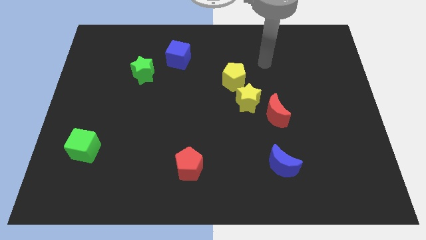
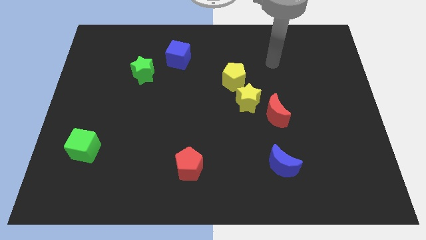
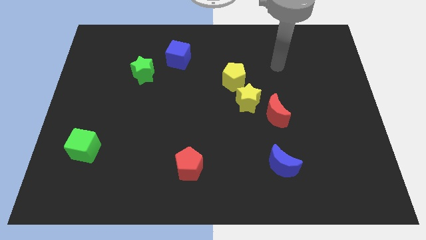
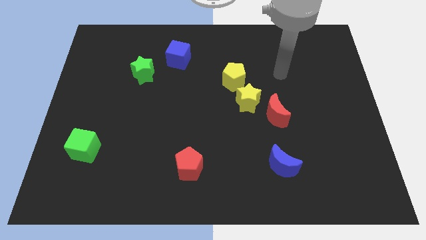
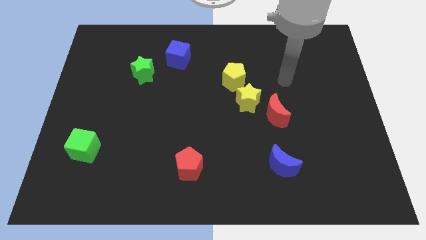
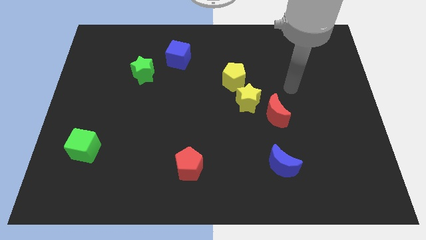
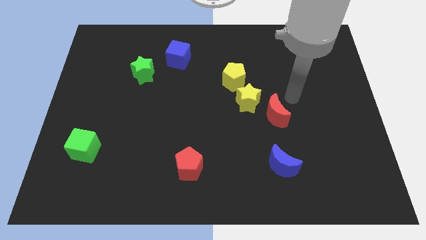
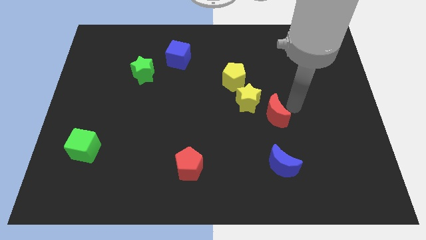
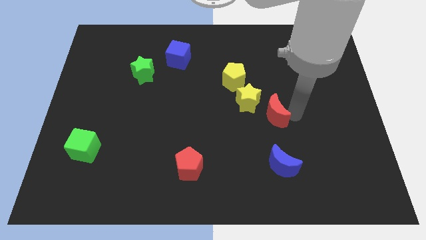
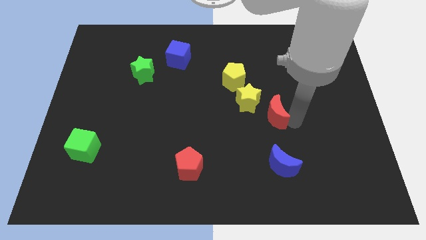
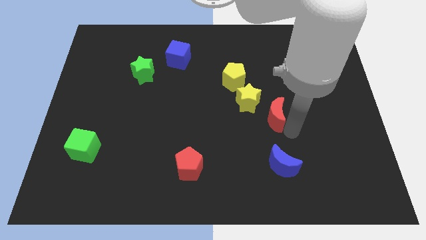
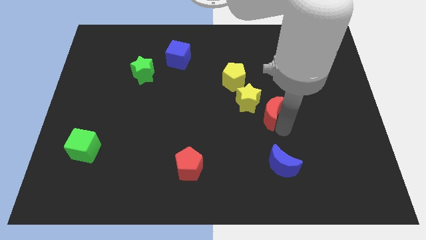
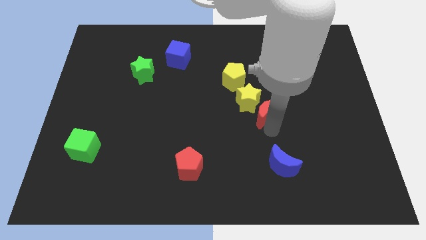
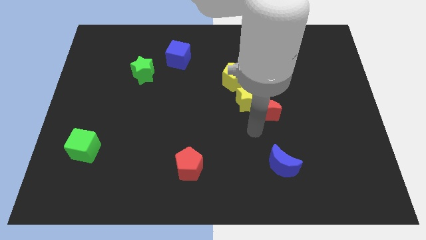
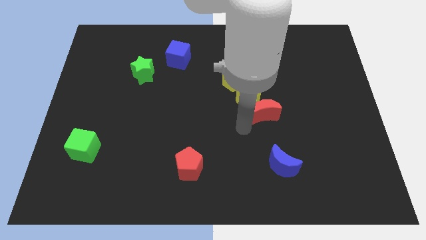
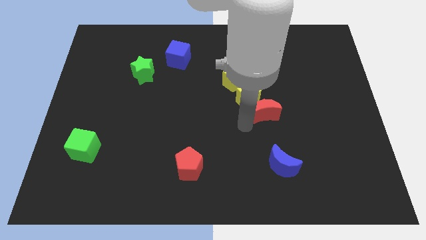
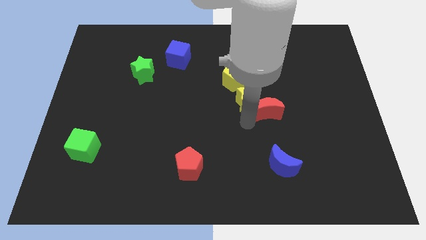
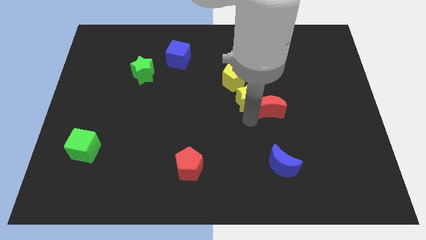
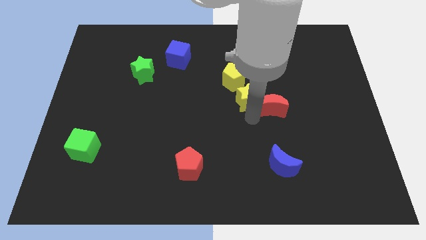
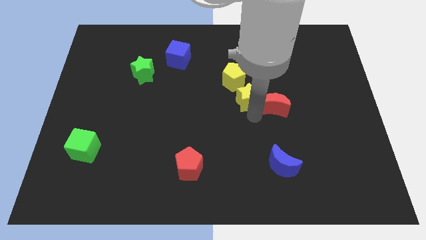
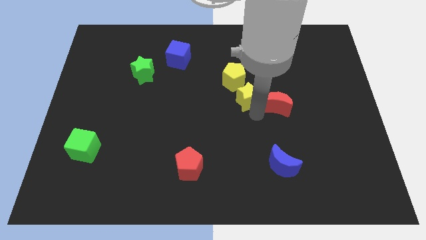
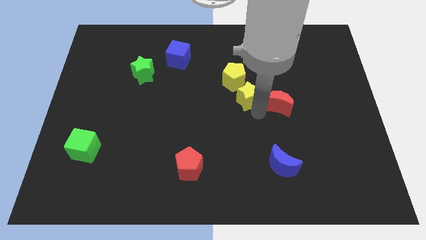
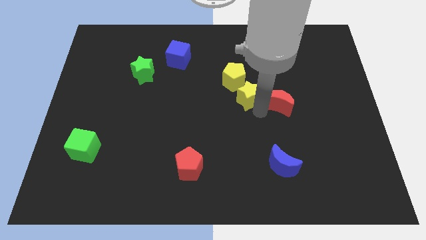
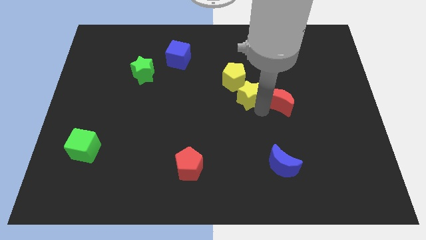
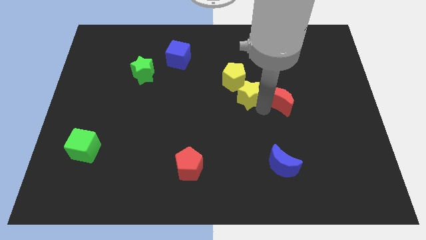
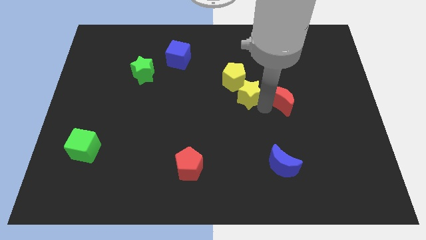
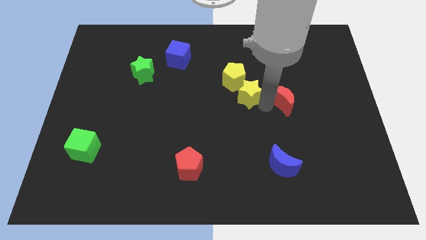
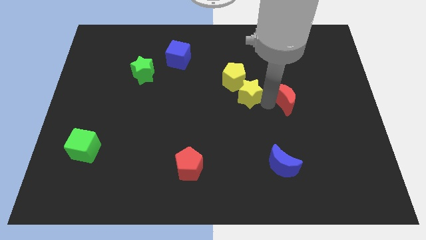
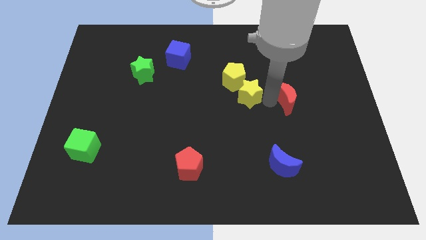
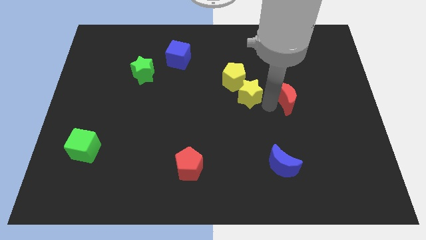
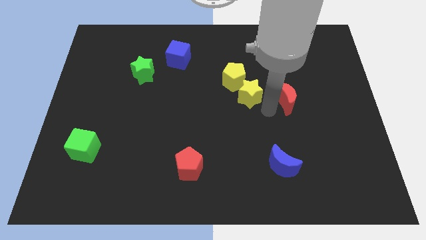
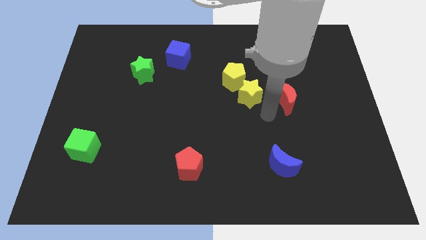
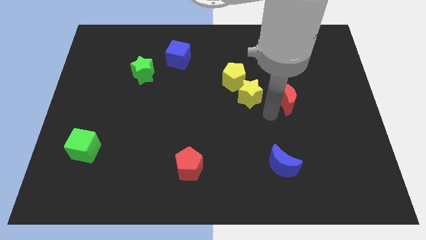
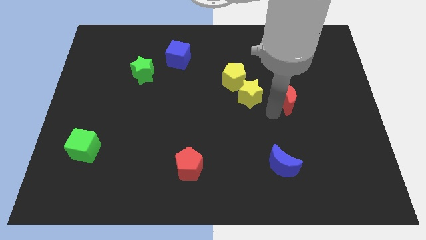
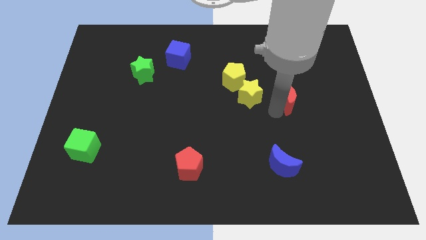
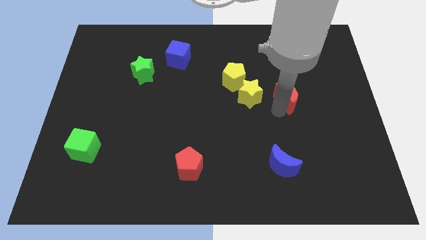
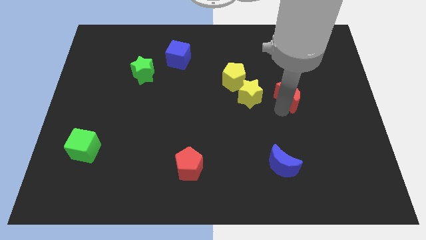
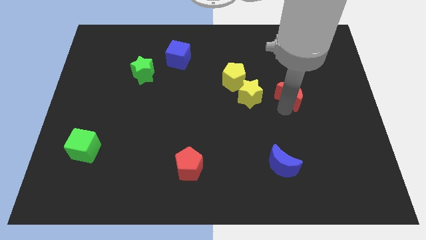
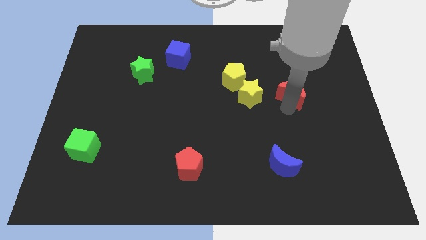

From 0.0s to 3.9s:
slightly push the red moon upwards and right diagonally

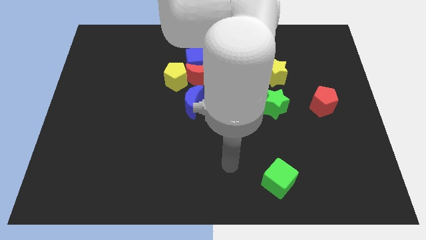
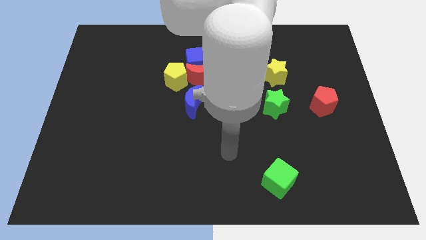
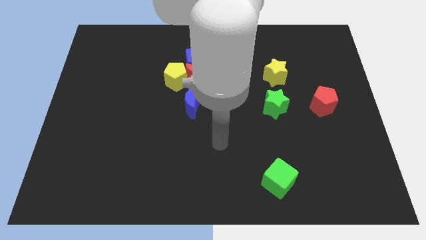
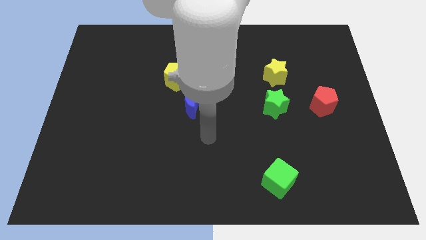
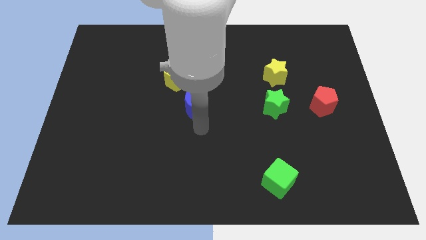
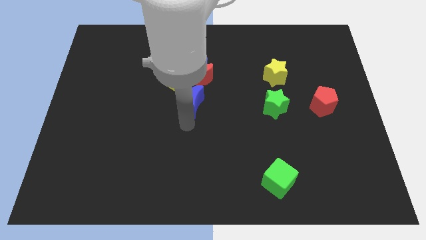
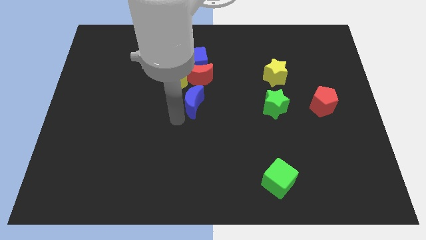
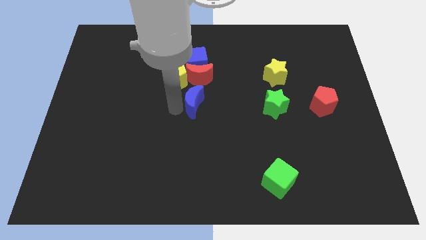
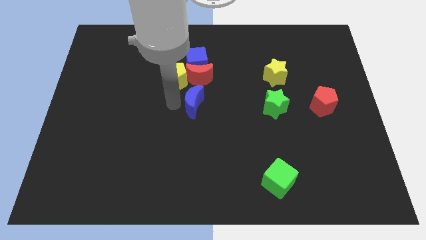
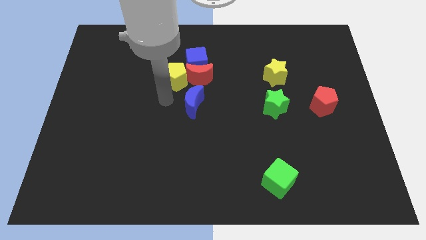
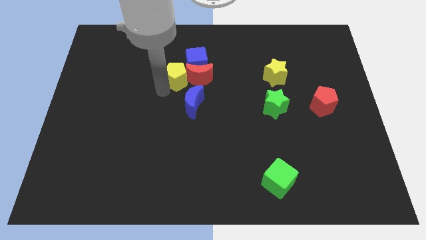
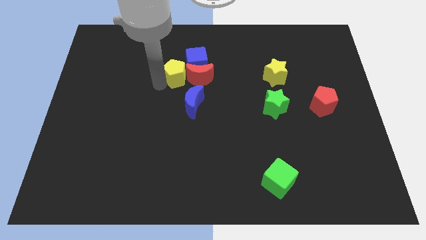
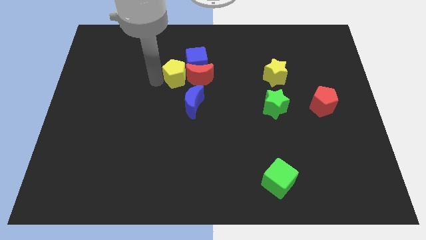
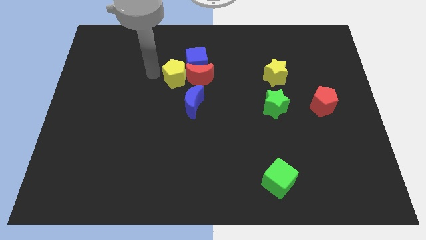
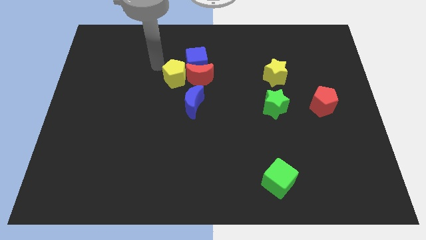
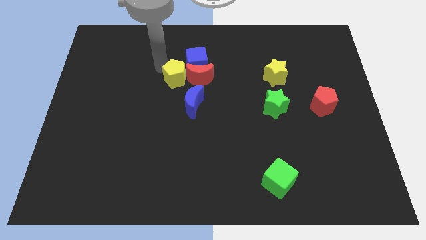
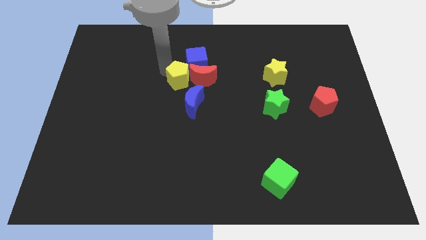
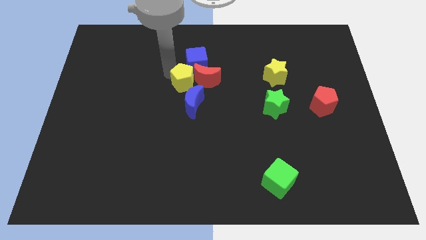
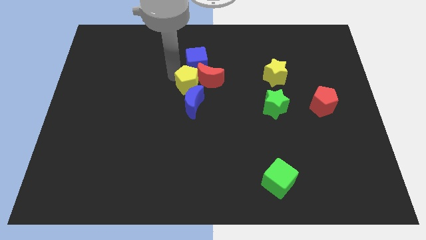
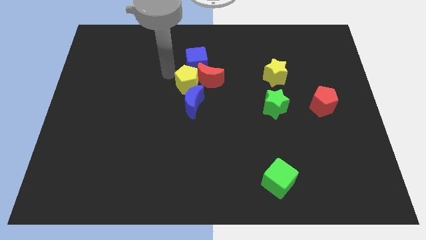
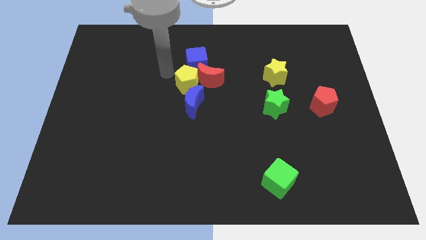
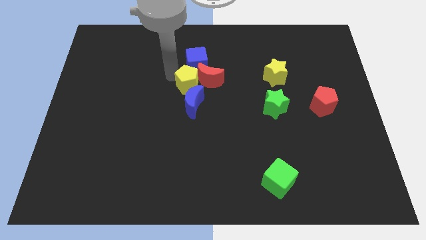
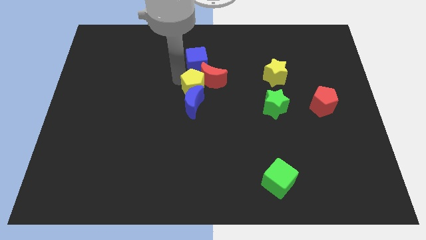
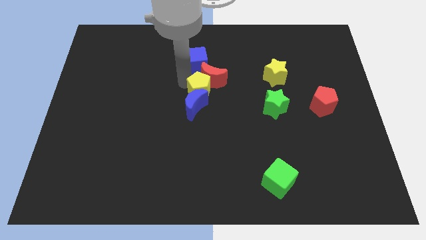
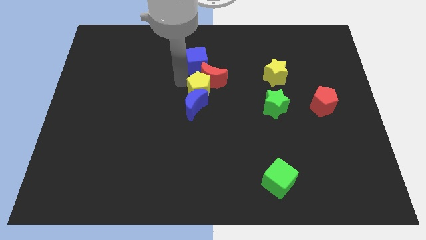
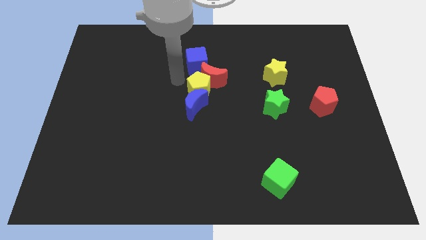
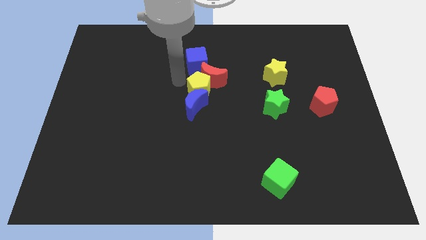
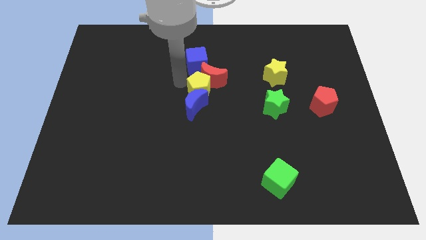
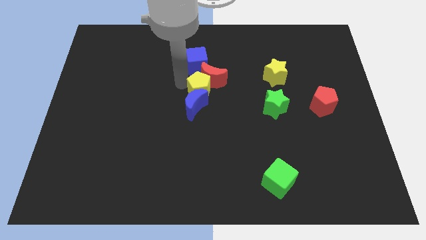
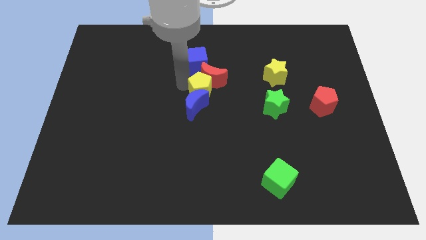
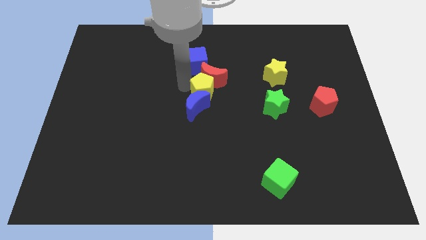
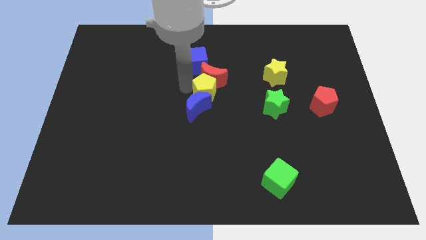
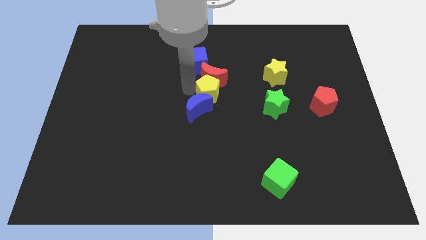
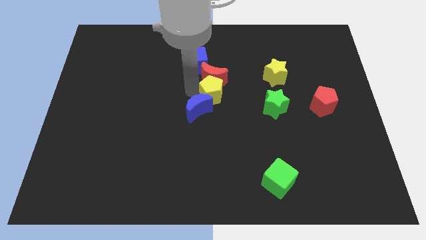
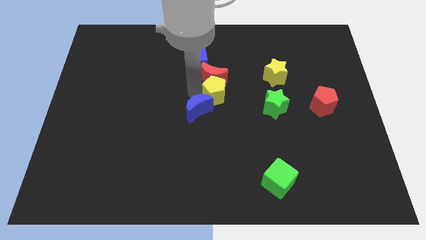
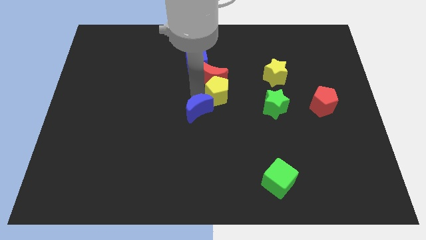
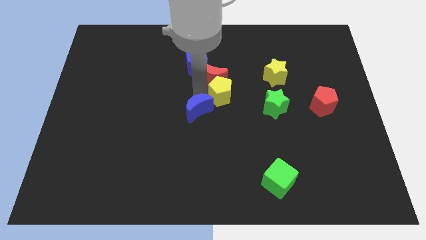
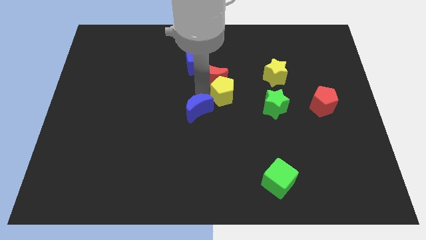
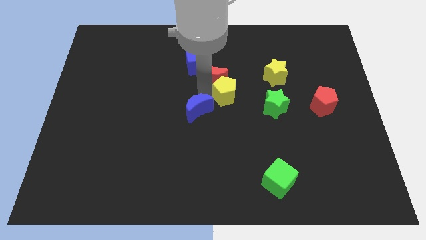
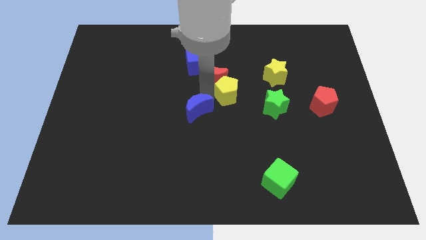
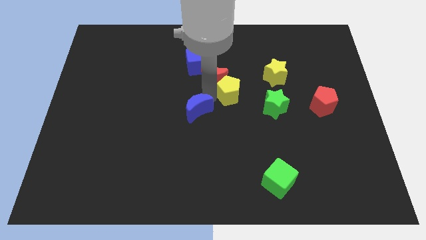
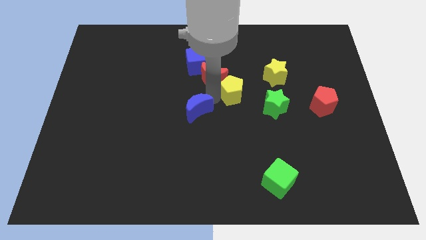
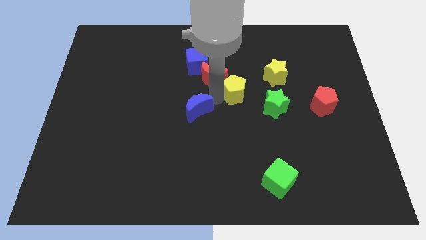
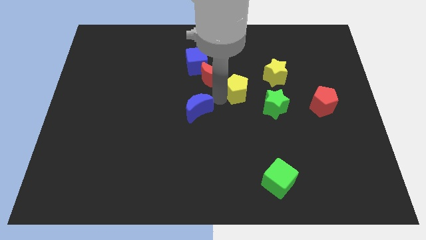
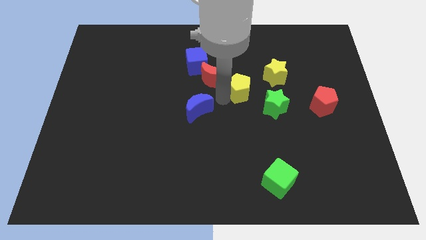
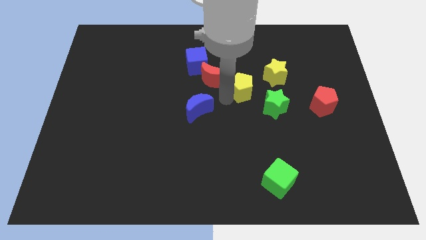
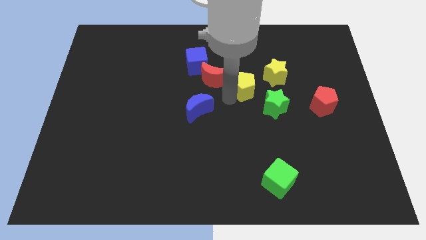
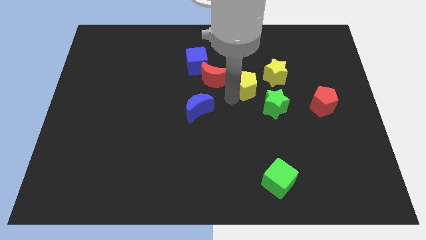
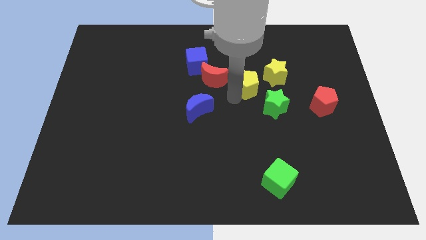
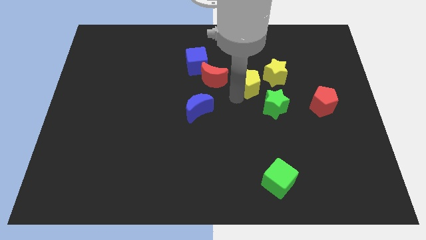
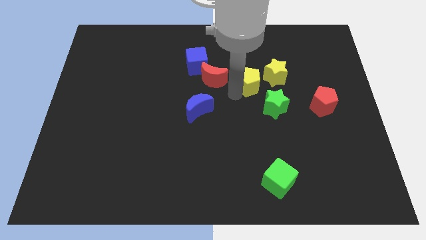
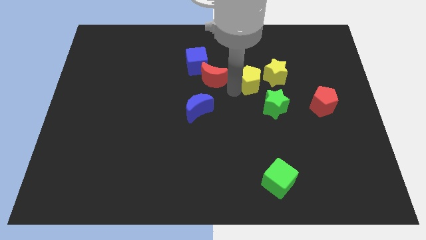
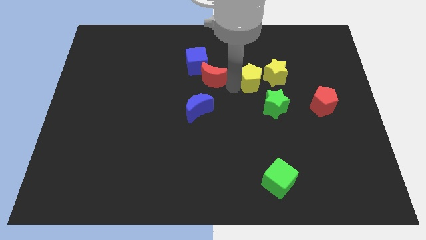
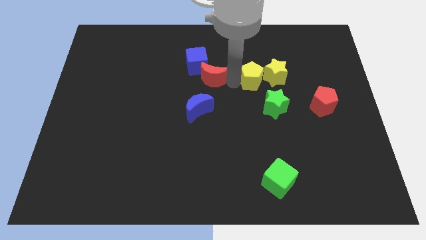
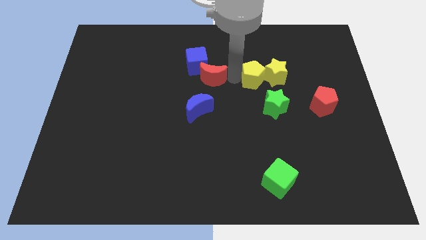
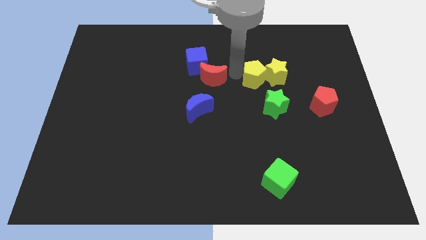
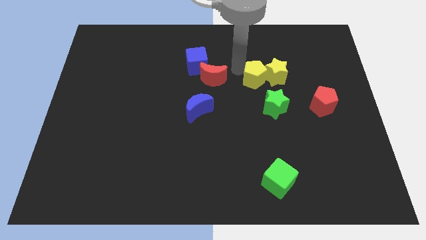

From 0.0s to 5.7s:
slide the yellow pentagon right
